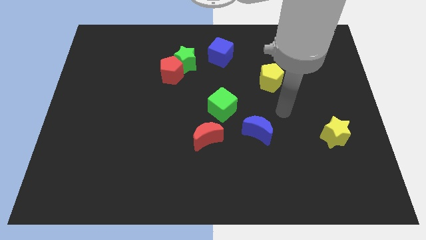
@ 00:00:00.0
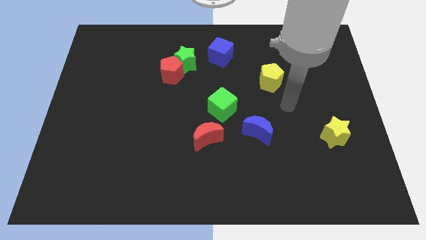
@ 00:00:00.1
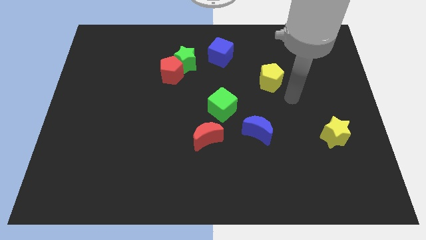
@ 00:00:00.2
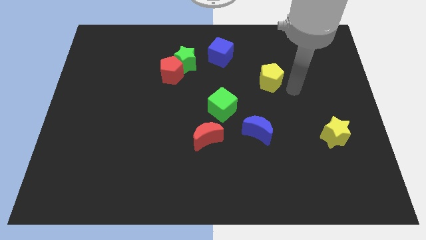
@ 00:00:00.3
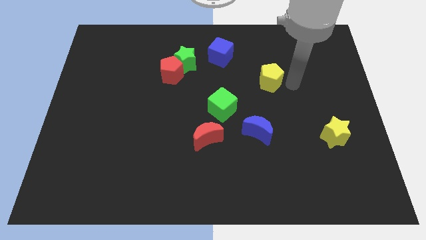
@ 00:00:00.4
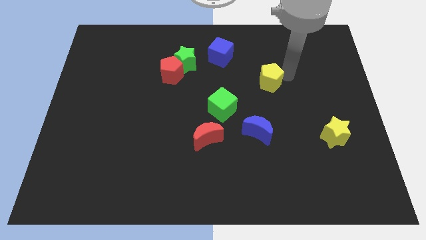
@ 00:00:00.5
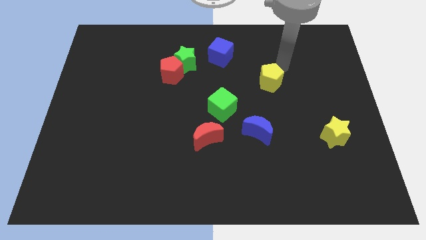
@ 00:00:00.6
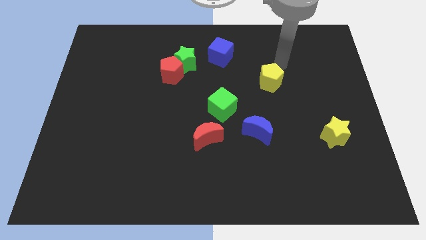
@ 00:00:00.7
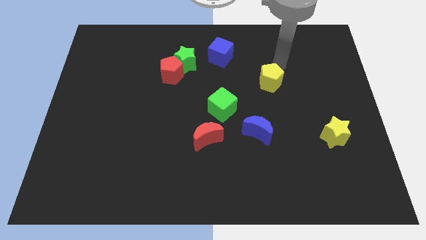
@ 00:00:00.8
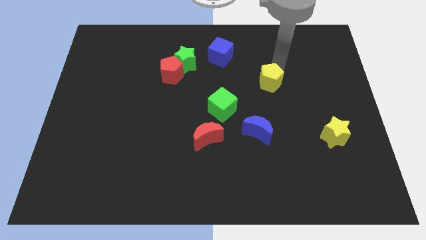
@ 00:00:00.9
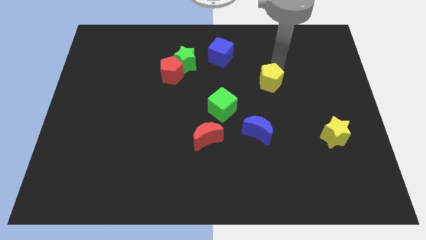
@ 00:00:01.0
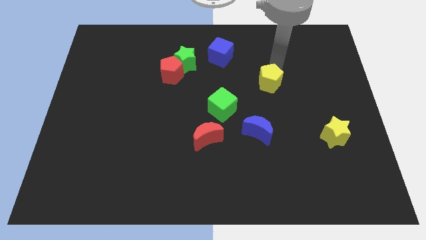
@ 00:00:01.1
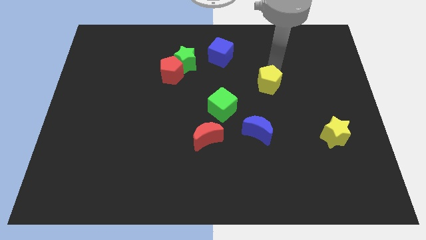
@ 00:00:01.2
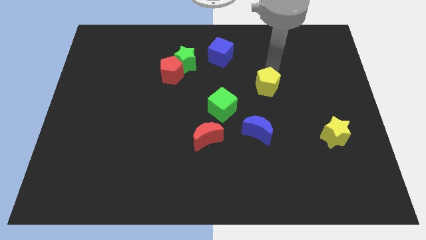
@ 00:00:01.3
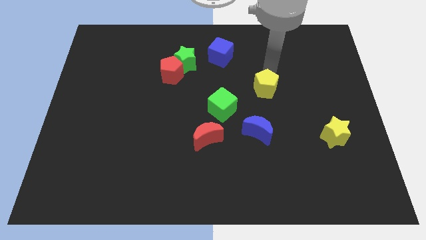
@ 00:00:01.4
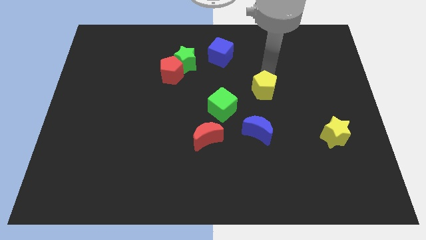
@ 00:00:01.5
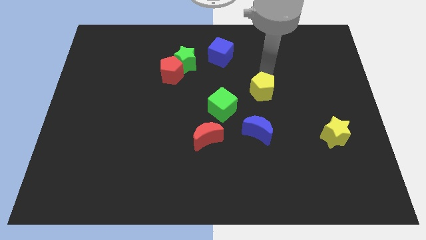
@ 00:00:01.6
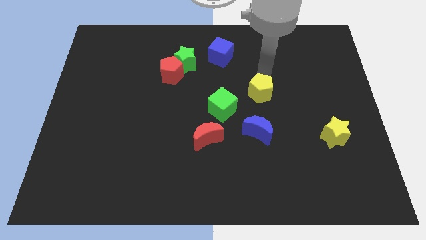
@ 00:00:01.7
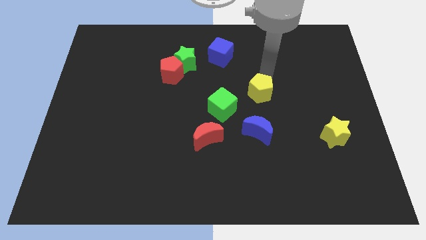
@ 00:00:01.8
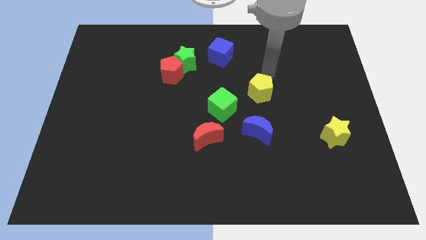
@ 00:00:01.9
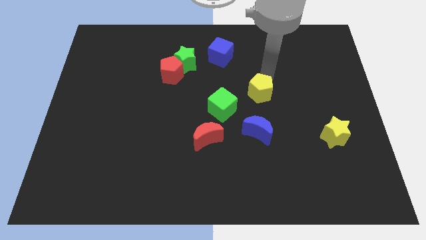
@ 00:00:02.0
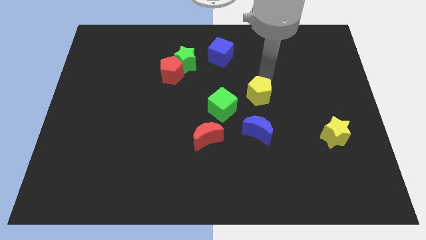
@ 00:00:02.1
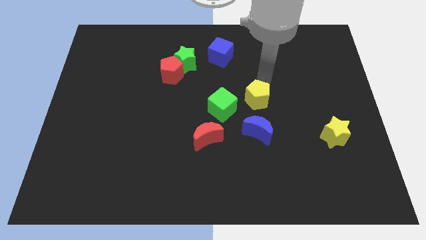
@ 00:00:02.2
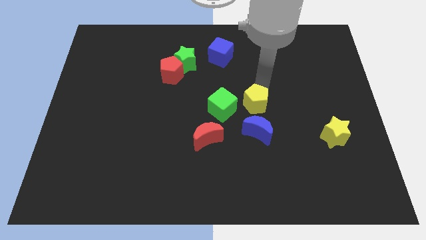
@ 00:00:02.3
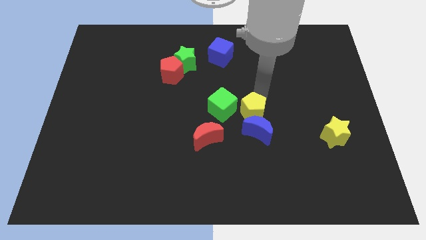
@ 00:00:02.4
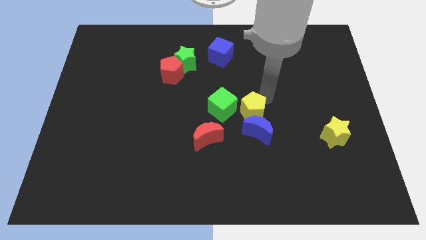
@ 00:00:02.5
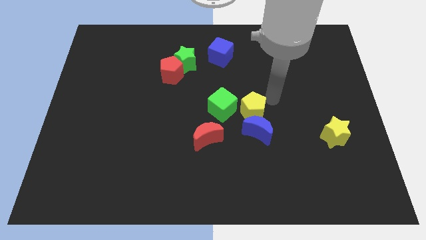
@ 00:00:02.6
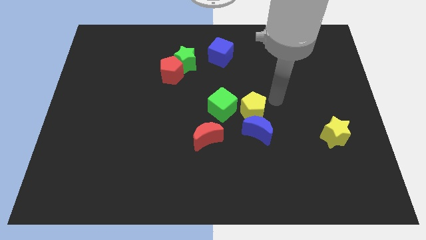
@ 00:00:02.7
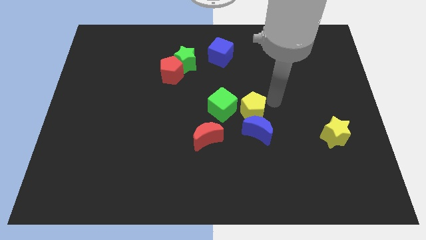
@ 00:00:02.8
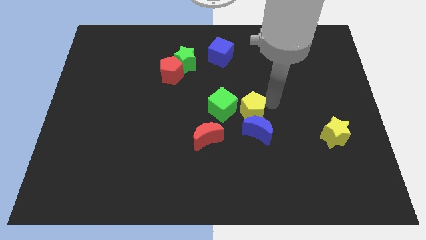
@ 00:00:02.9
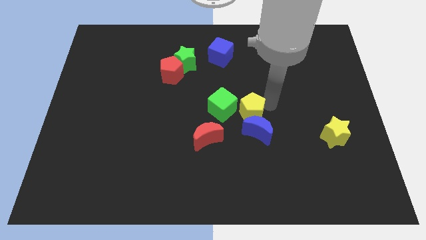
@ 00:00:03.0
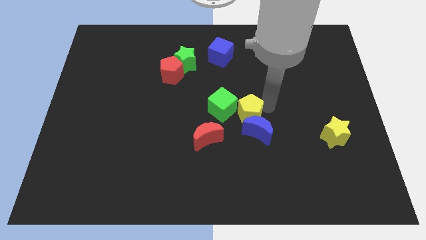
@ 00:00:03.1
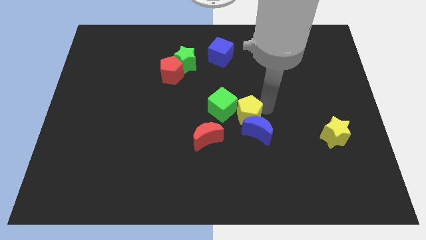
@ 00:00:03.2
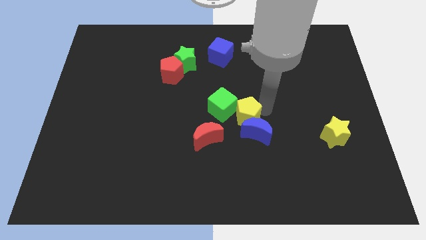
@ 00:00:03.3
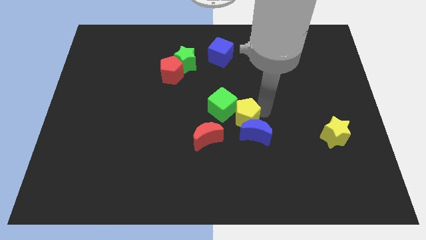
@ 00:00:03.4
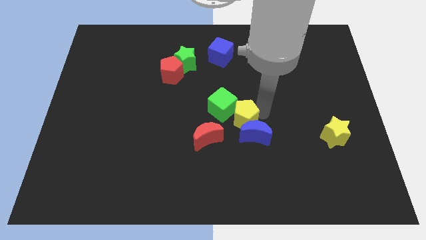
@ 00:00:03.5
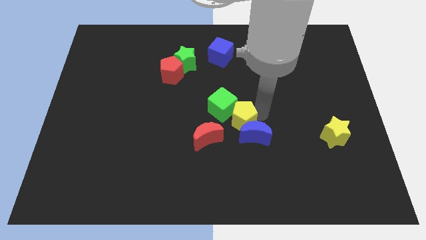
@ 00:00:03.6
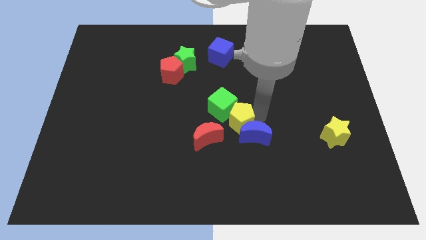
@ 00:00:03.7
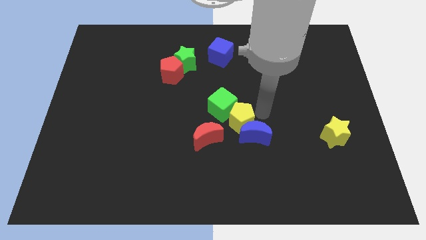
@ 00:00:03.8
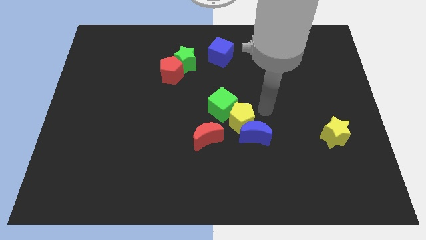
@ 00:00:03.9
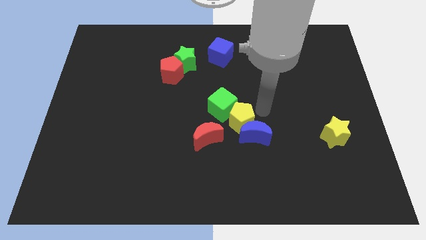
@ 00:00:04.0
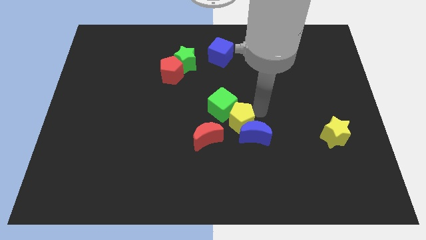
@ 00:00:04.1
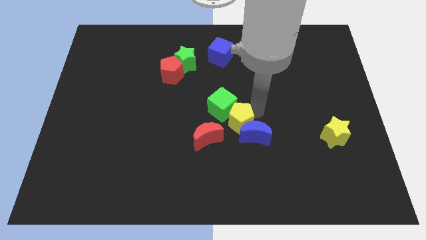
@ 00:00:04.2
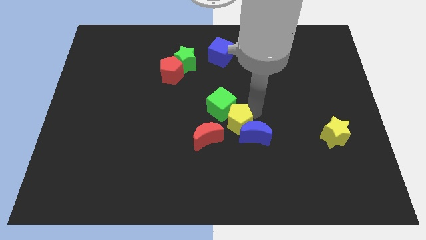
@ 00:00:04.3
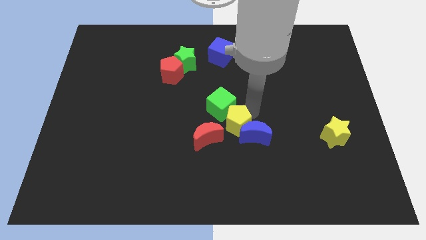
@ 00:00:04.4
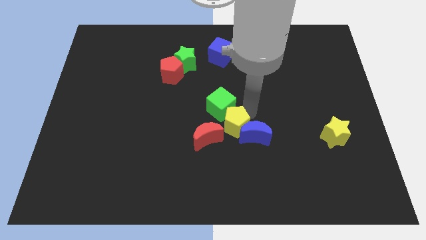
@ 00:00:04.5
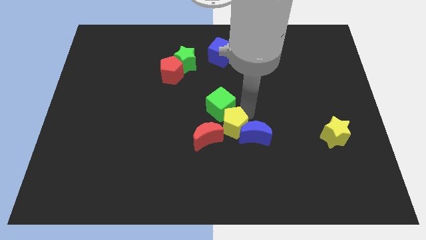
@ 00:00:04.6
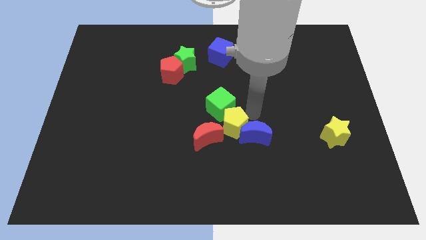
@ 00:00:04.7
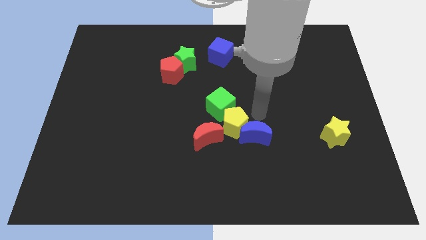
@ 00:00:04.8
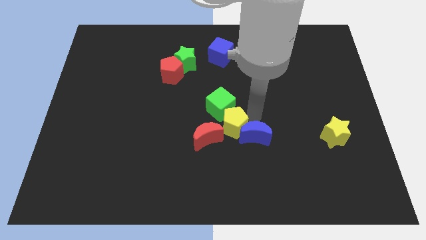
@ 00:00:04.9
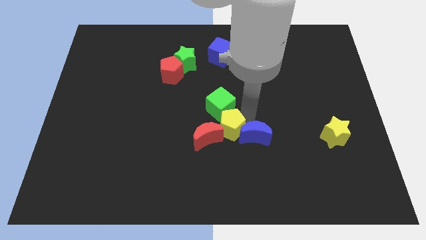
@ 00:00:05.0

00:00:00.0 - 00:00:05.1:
move the yellow pentagon to the red moon

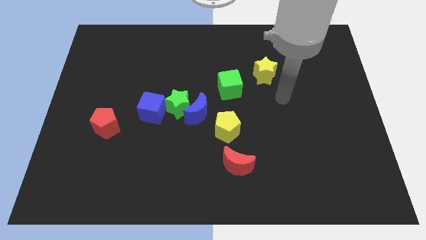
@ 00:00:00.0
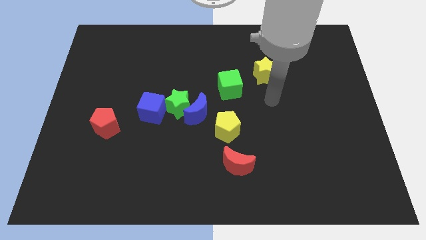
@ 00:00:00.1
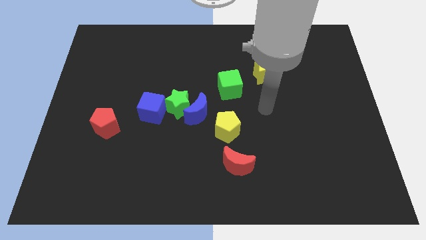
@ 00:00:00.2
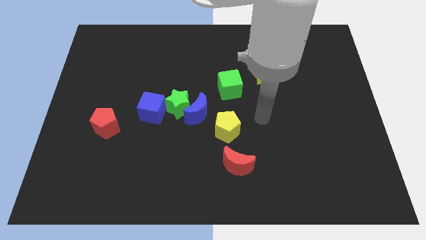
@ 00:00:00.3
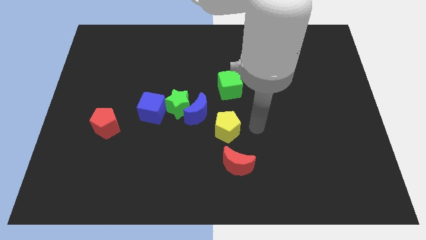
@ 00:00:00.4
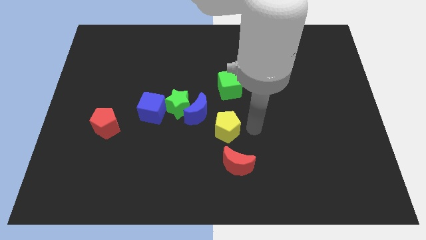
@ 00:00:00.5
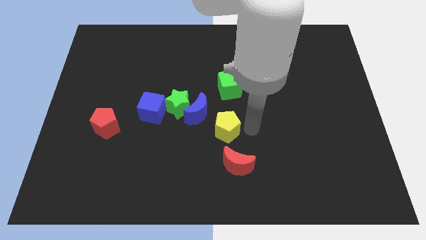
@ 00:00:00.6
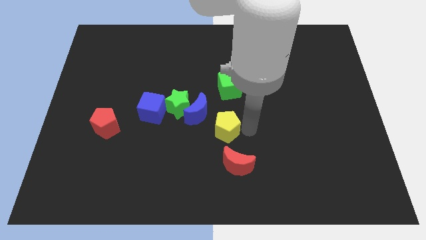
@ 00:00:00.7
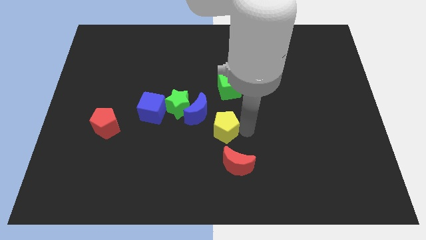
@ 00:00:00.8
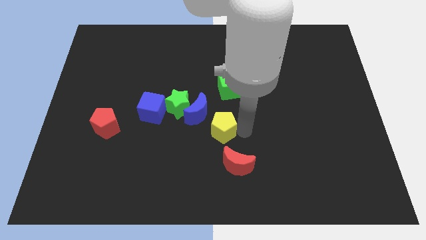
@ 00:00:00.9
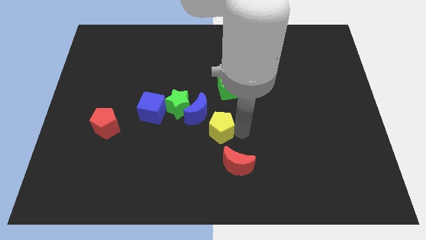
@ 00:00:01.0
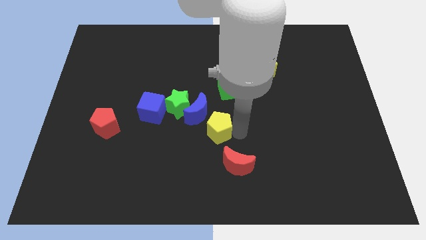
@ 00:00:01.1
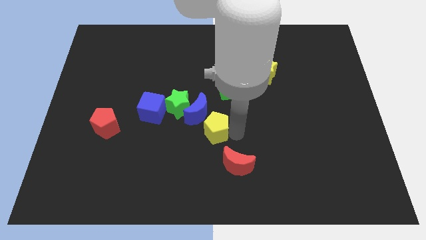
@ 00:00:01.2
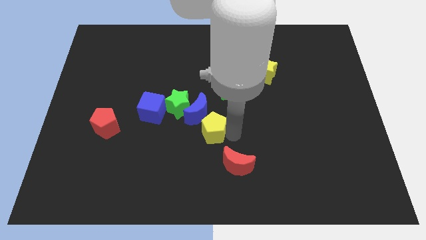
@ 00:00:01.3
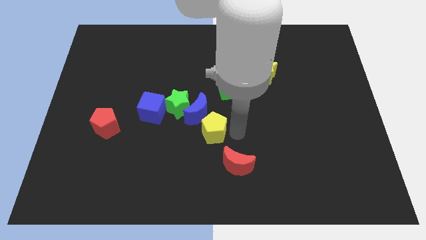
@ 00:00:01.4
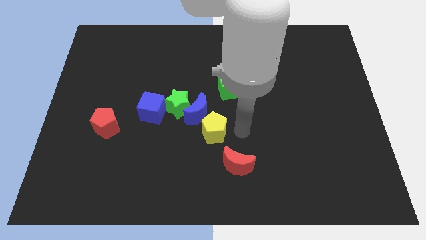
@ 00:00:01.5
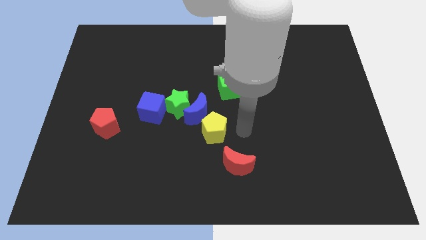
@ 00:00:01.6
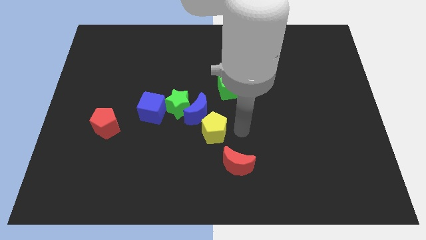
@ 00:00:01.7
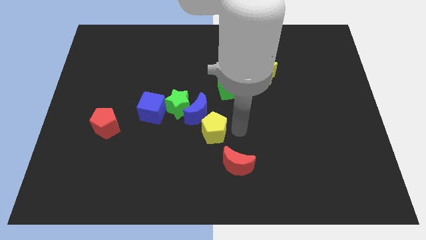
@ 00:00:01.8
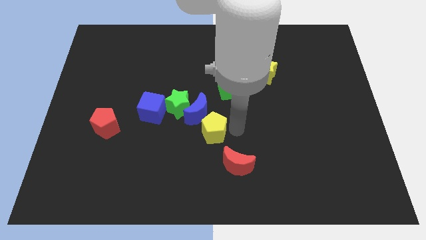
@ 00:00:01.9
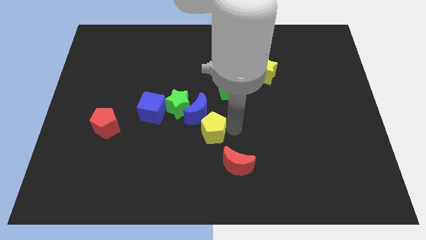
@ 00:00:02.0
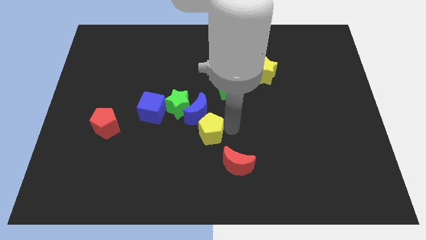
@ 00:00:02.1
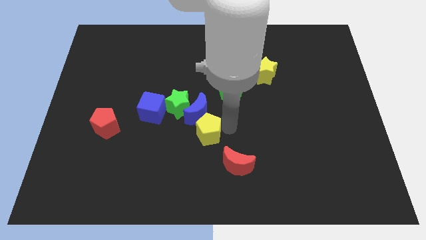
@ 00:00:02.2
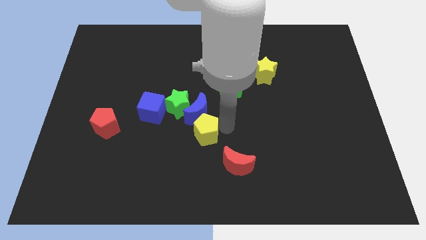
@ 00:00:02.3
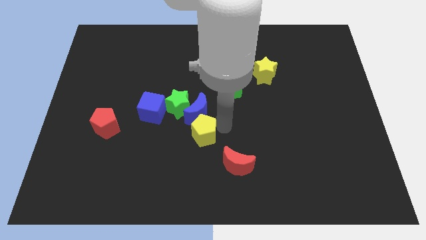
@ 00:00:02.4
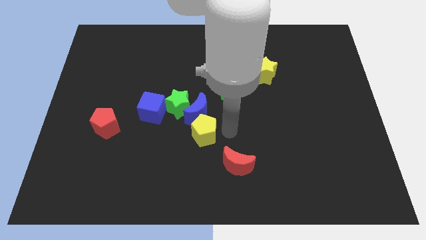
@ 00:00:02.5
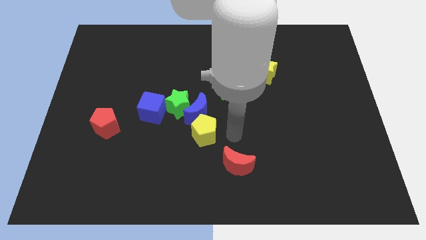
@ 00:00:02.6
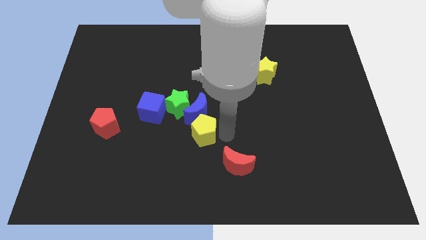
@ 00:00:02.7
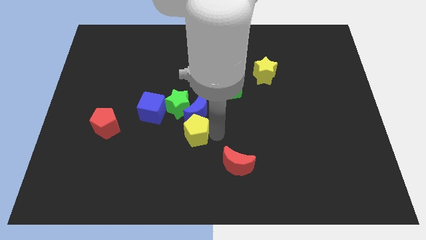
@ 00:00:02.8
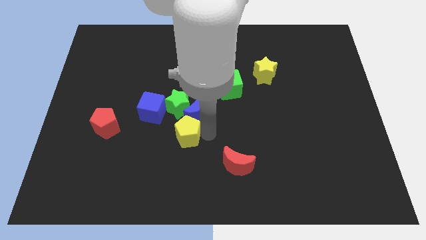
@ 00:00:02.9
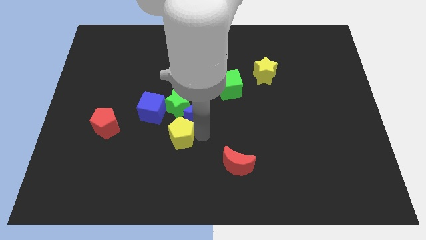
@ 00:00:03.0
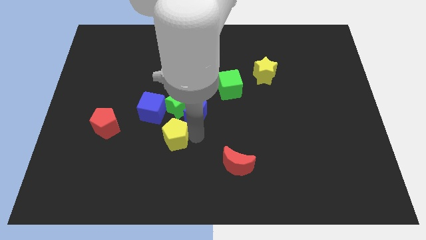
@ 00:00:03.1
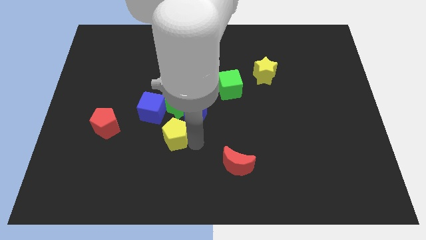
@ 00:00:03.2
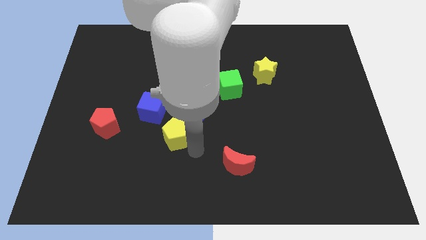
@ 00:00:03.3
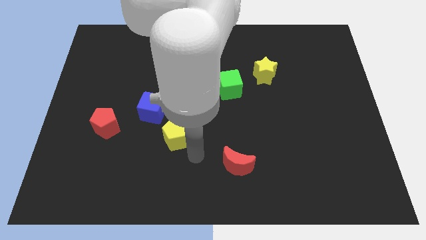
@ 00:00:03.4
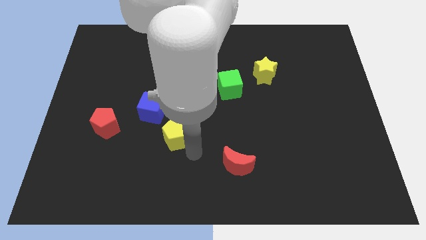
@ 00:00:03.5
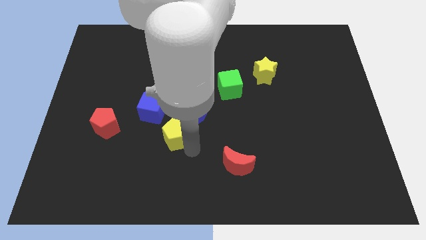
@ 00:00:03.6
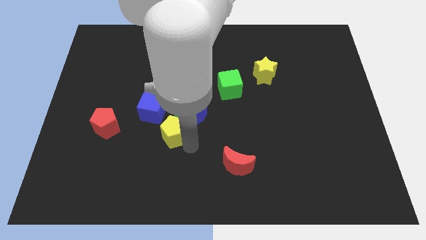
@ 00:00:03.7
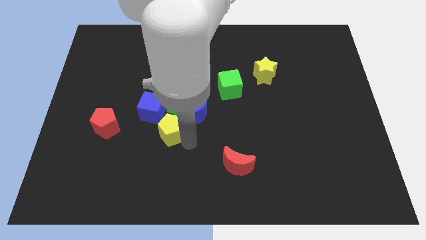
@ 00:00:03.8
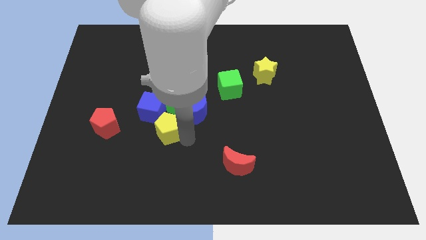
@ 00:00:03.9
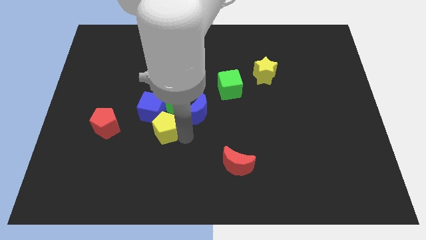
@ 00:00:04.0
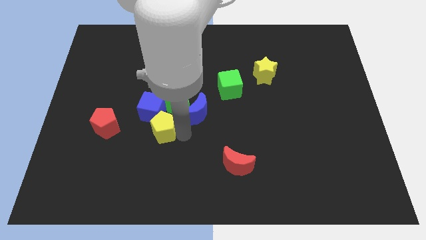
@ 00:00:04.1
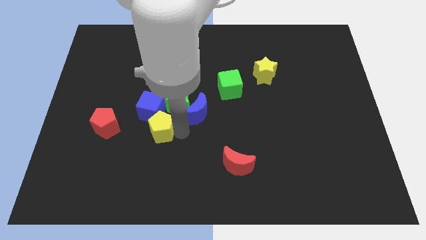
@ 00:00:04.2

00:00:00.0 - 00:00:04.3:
push the yellow pentagon towards the blue cube
